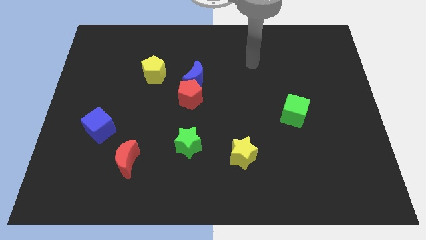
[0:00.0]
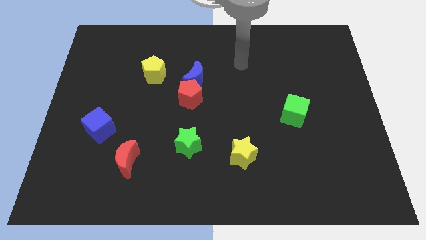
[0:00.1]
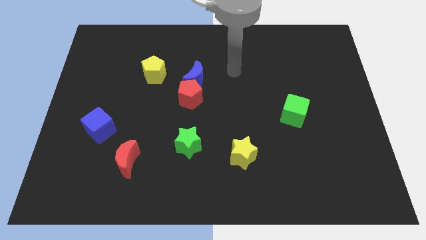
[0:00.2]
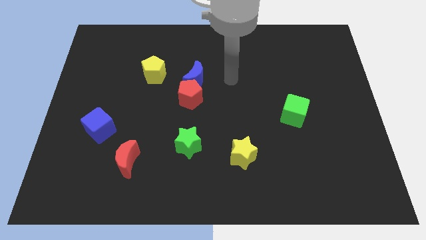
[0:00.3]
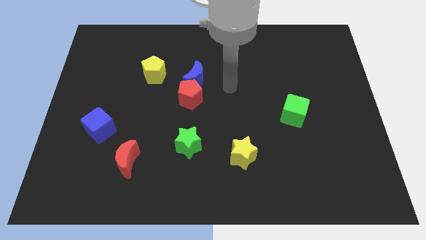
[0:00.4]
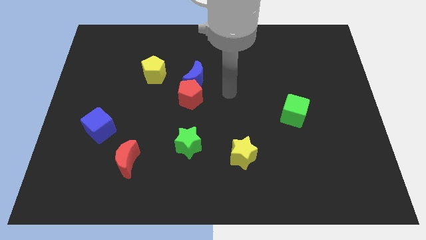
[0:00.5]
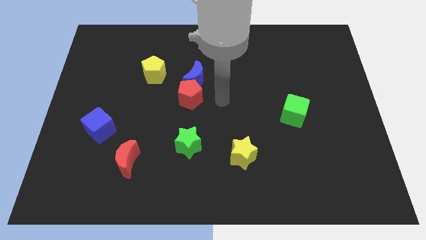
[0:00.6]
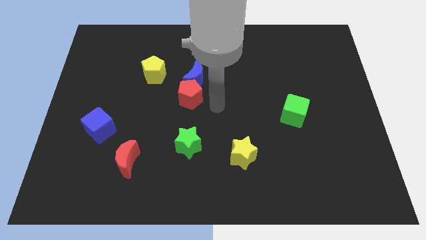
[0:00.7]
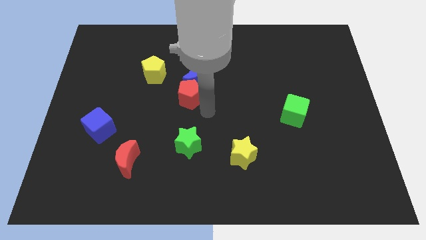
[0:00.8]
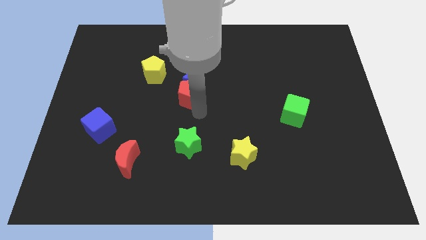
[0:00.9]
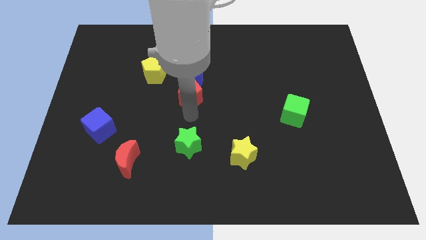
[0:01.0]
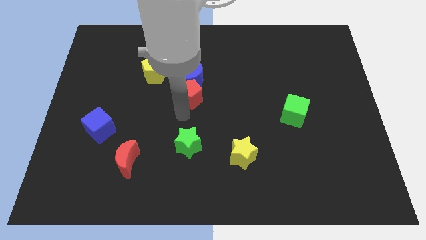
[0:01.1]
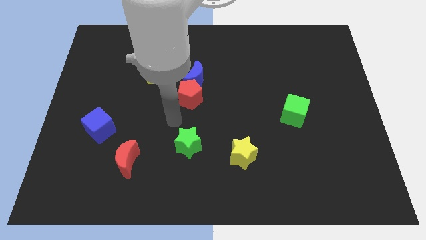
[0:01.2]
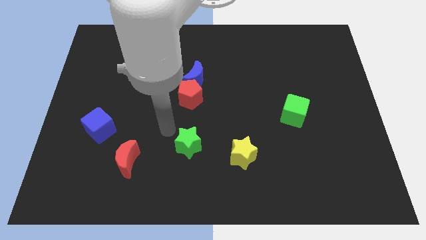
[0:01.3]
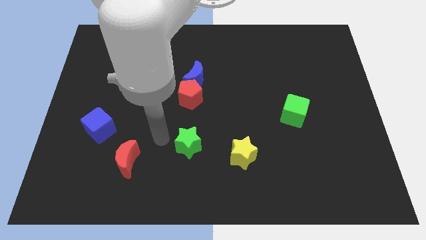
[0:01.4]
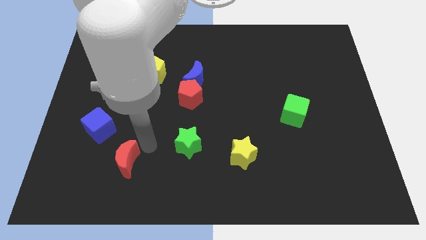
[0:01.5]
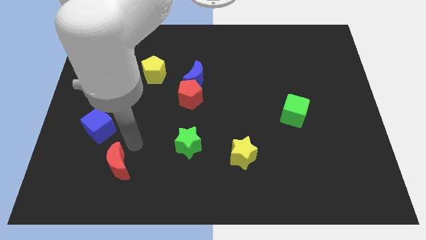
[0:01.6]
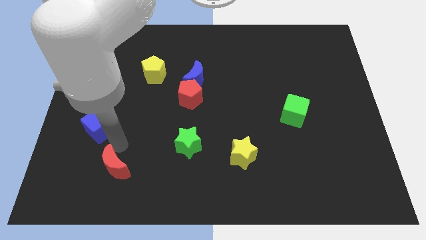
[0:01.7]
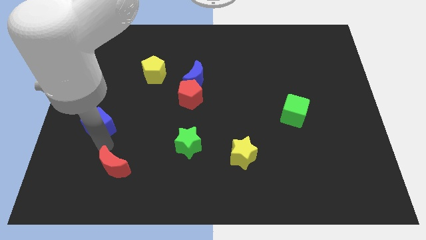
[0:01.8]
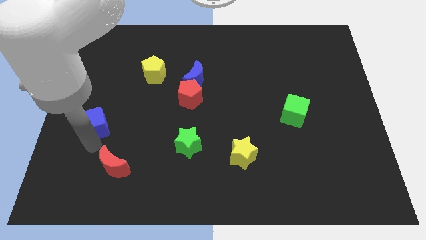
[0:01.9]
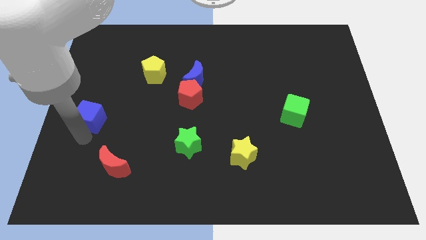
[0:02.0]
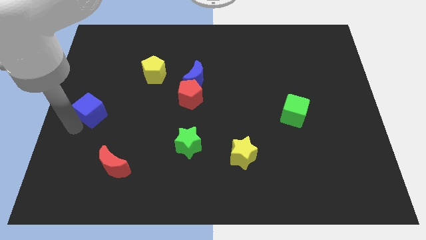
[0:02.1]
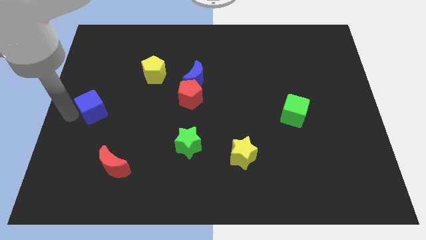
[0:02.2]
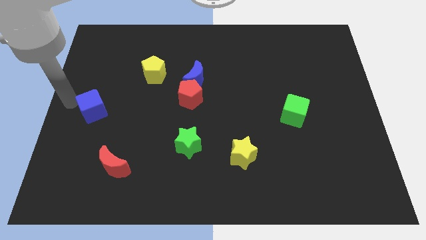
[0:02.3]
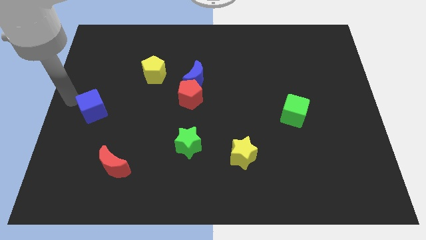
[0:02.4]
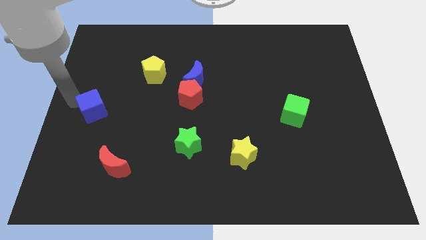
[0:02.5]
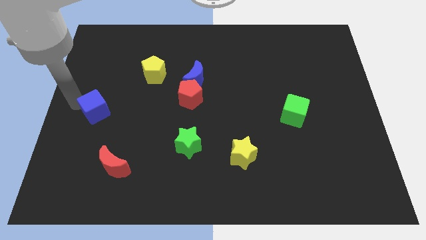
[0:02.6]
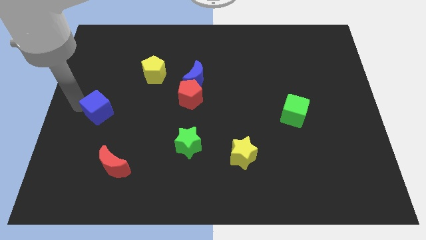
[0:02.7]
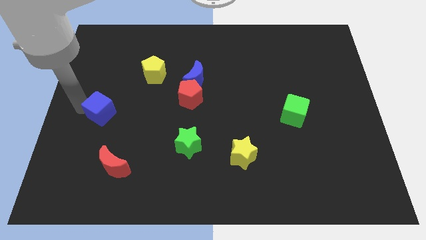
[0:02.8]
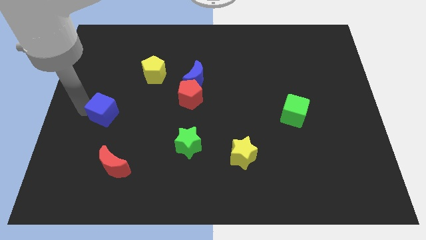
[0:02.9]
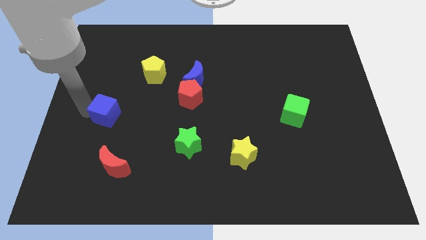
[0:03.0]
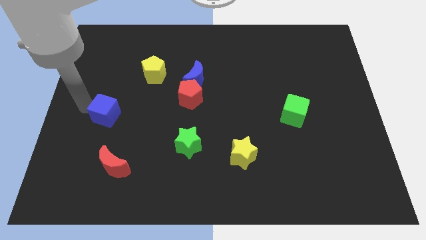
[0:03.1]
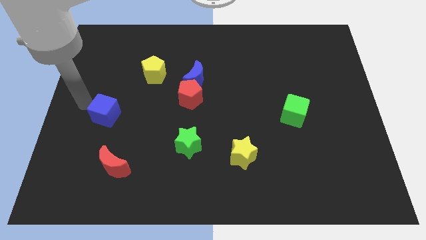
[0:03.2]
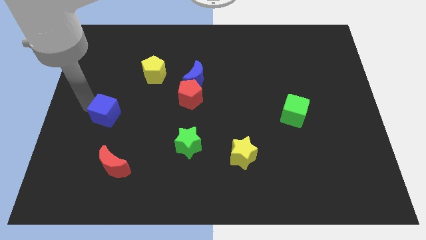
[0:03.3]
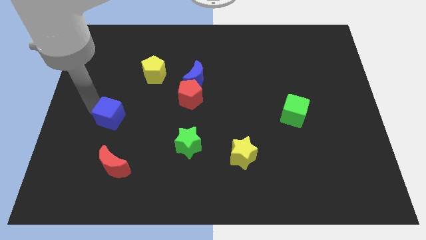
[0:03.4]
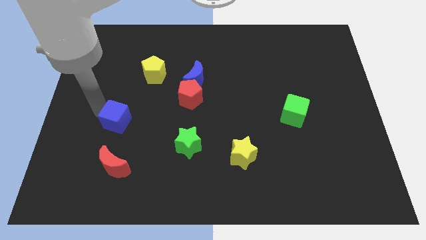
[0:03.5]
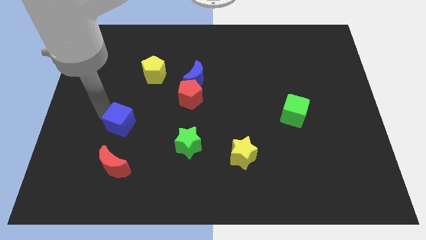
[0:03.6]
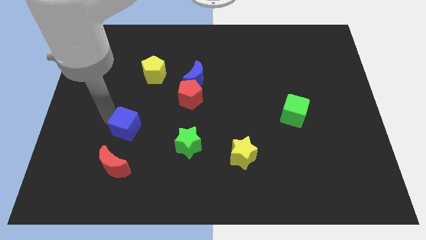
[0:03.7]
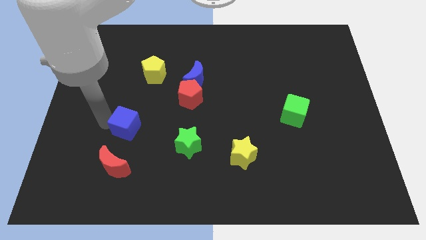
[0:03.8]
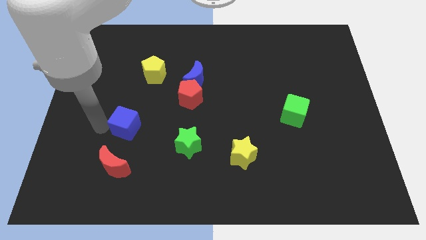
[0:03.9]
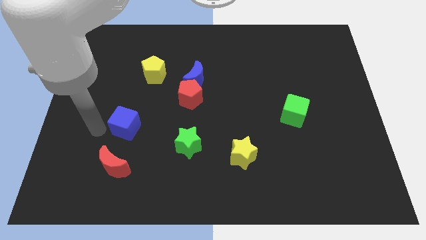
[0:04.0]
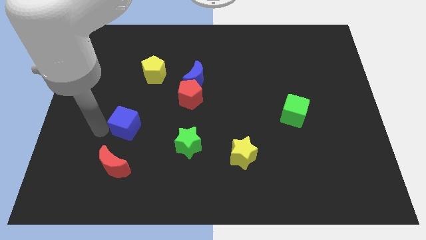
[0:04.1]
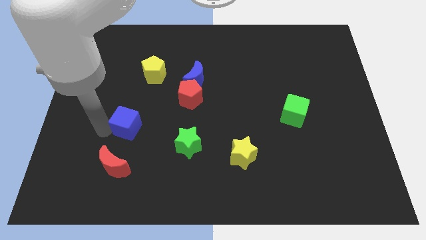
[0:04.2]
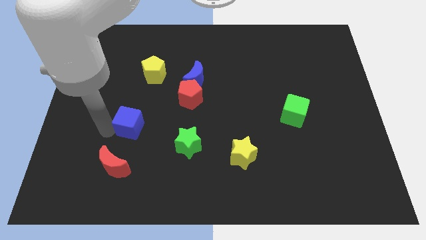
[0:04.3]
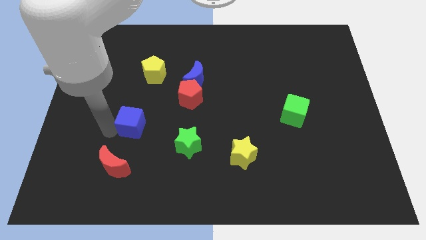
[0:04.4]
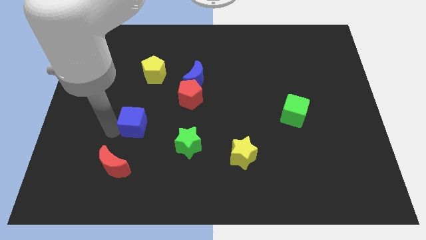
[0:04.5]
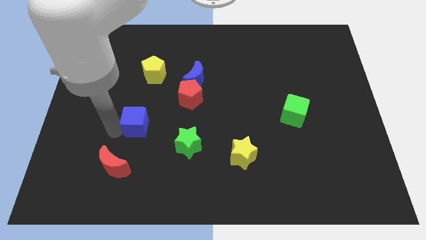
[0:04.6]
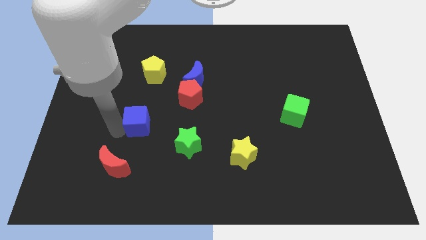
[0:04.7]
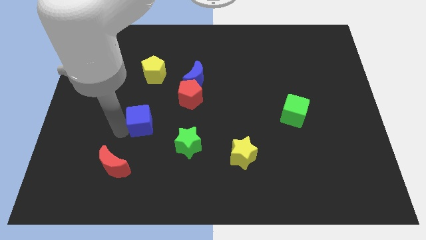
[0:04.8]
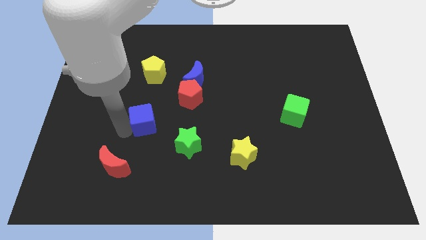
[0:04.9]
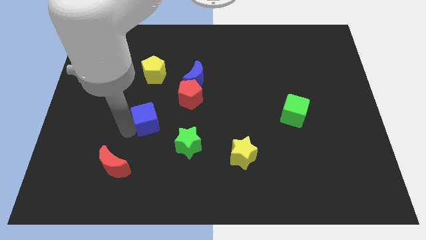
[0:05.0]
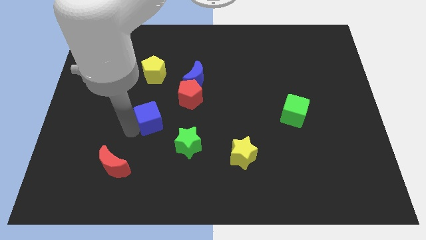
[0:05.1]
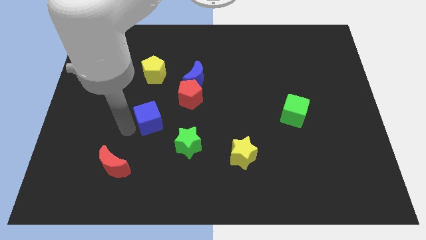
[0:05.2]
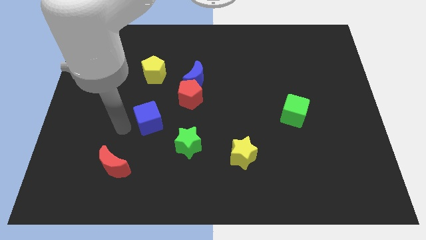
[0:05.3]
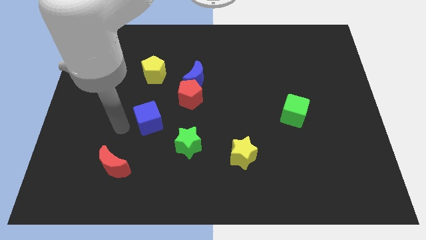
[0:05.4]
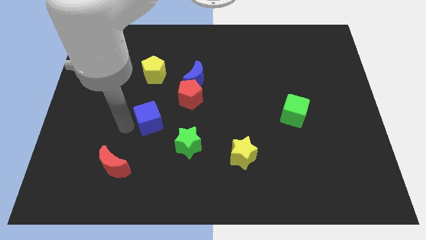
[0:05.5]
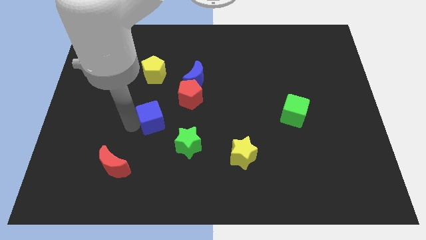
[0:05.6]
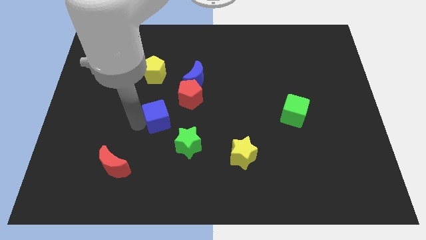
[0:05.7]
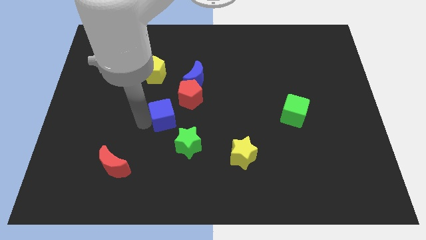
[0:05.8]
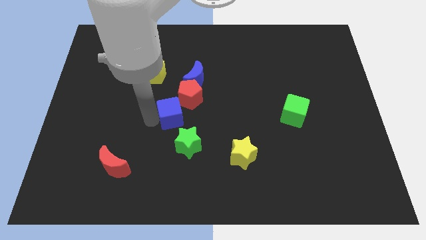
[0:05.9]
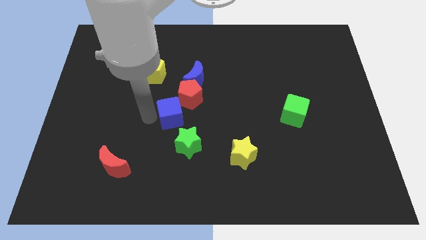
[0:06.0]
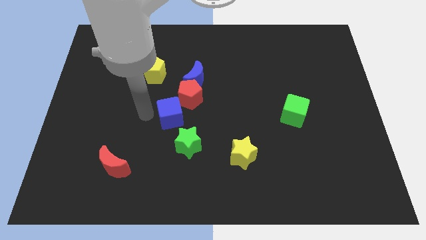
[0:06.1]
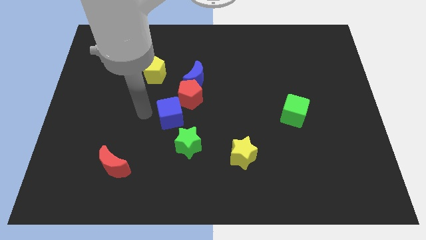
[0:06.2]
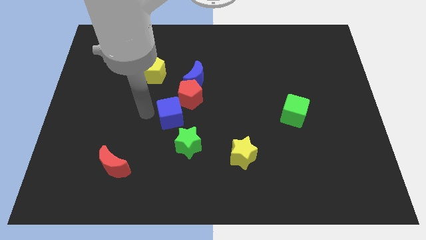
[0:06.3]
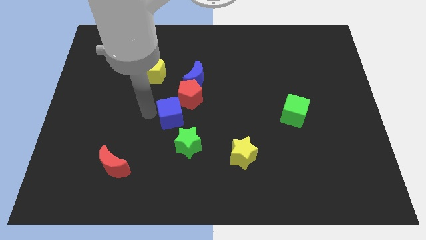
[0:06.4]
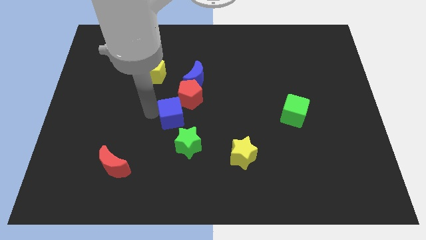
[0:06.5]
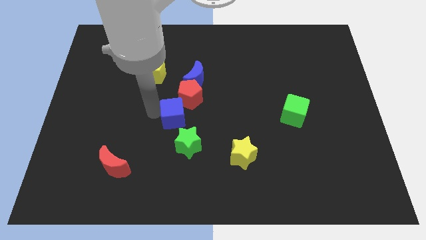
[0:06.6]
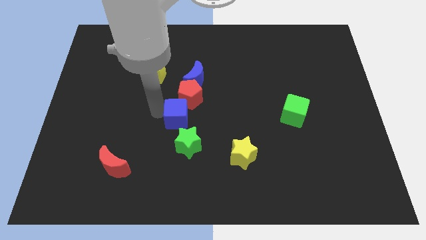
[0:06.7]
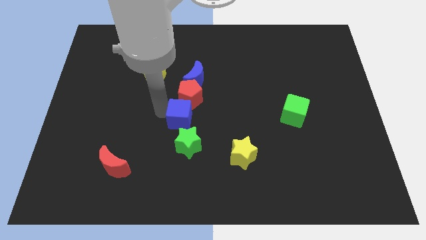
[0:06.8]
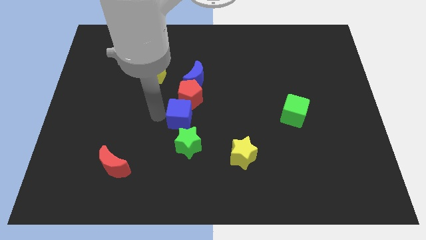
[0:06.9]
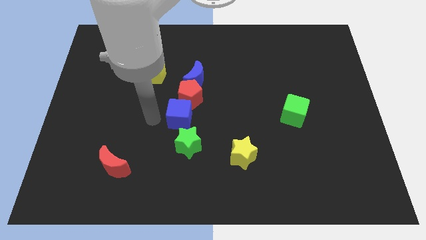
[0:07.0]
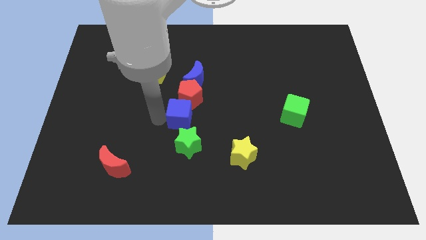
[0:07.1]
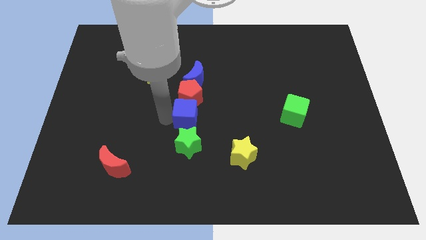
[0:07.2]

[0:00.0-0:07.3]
put the blue cube to the bottom right side of the red pentagon
